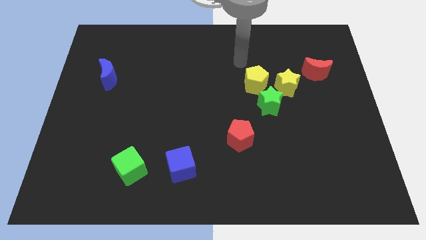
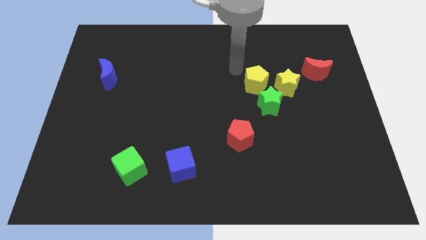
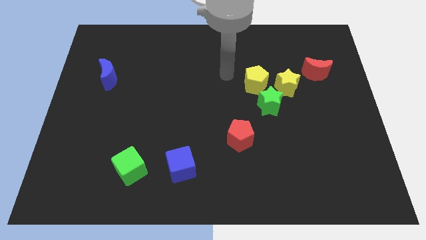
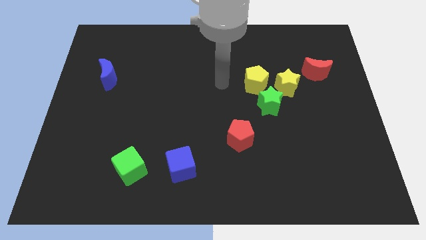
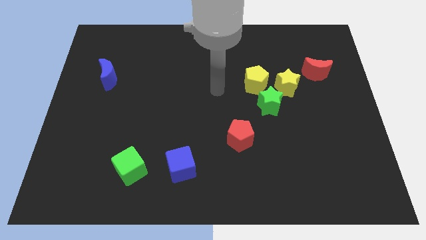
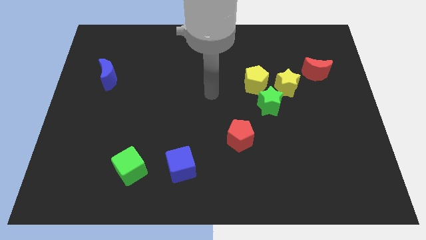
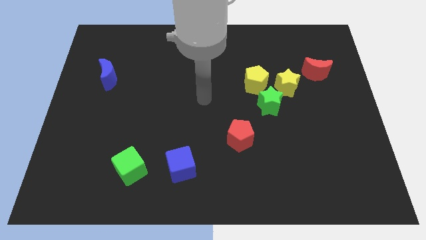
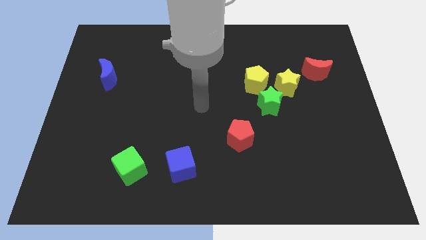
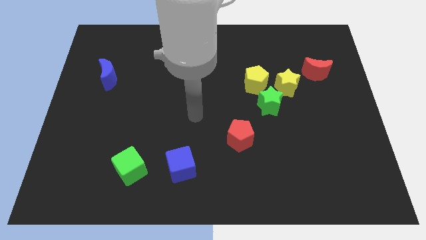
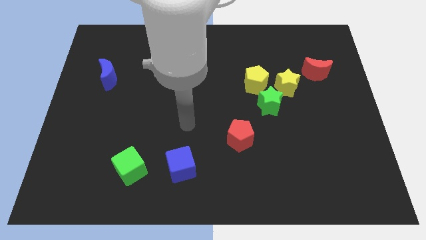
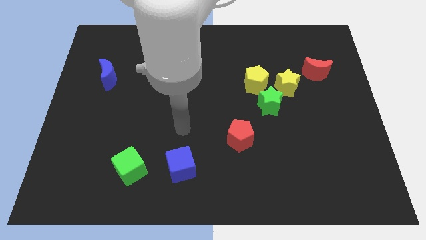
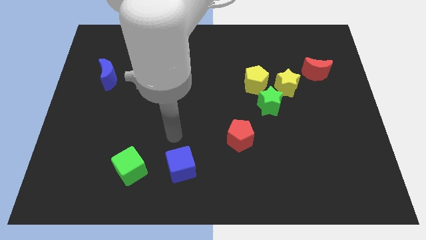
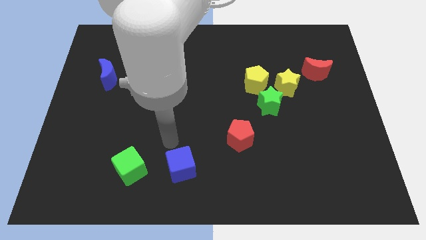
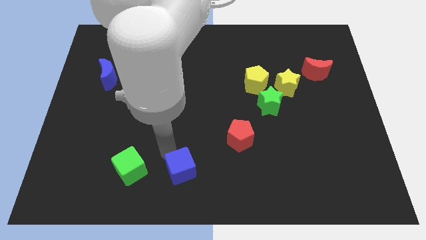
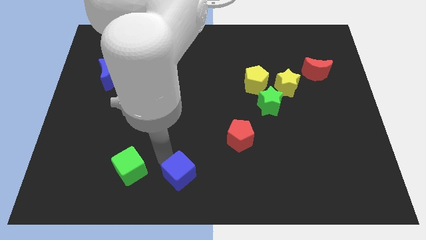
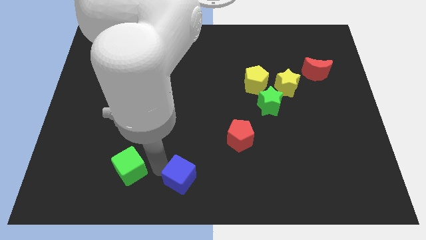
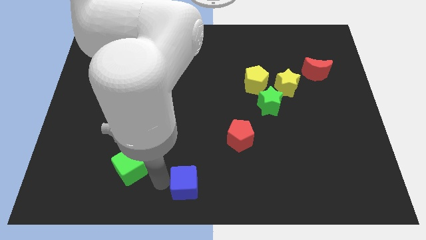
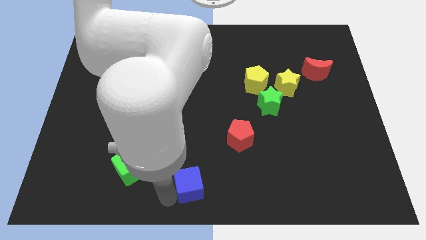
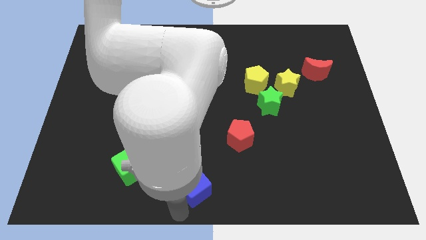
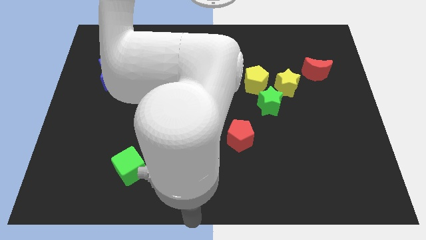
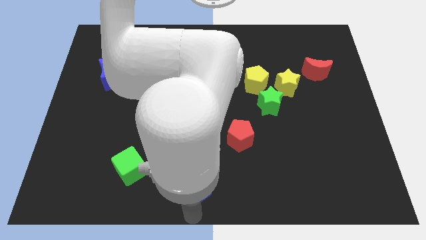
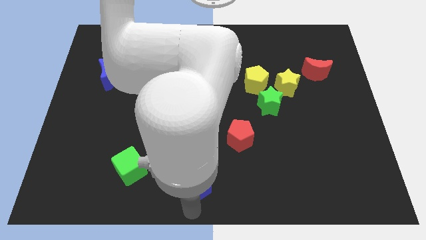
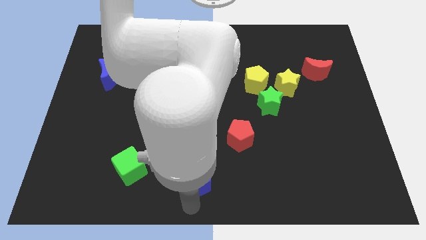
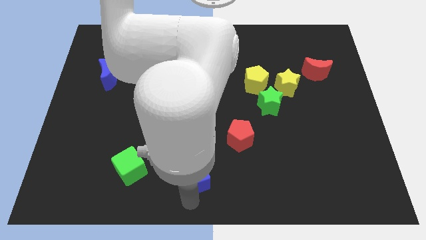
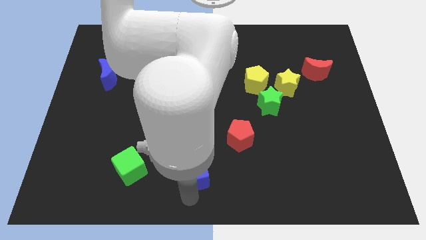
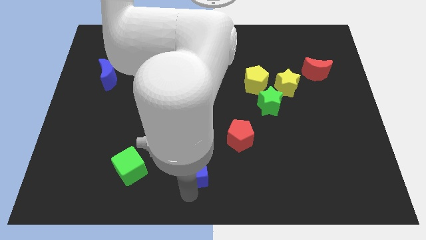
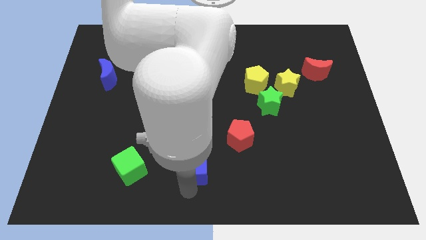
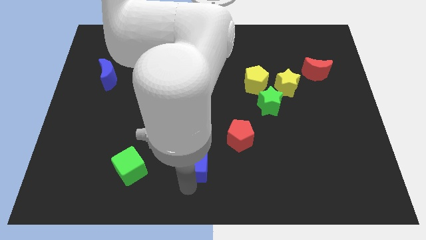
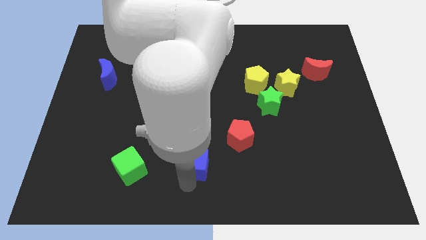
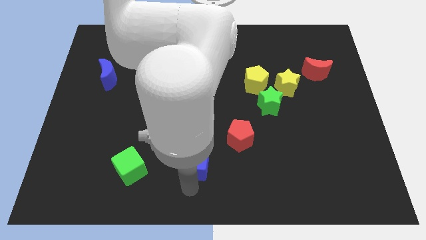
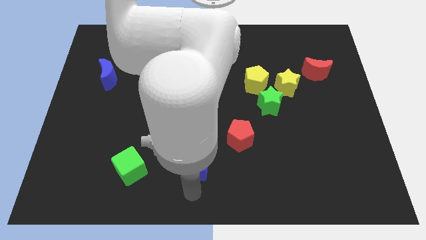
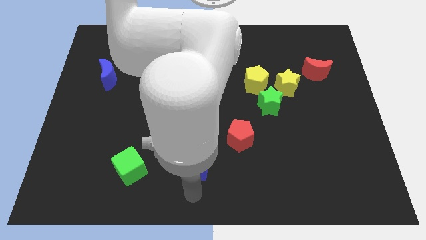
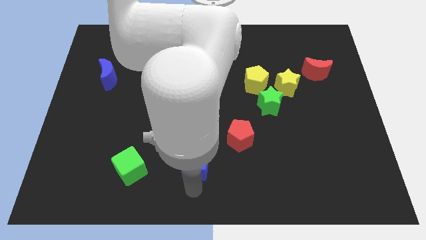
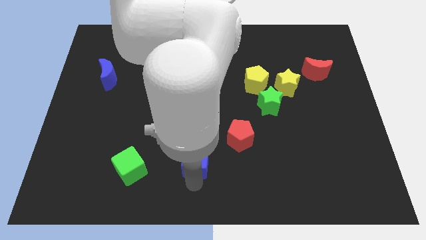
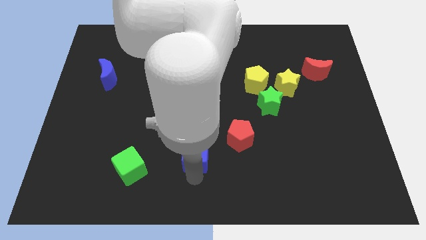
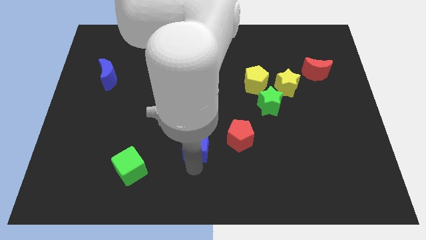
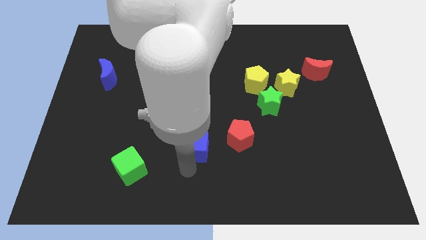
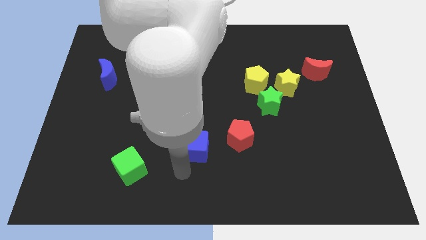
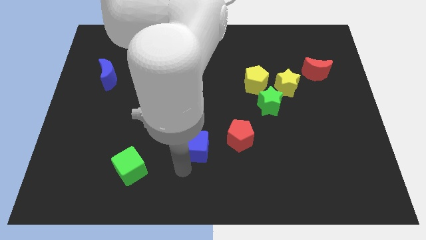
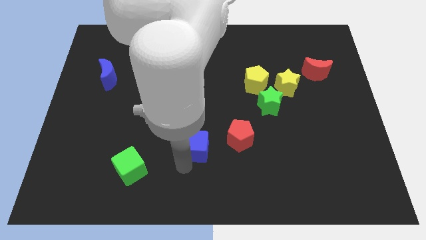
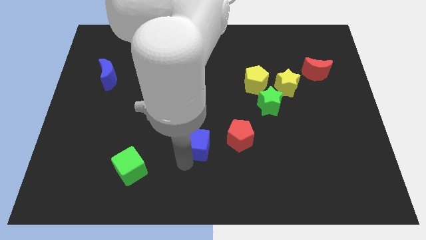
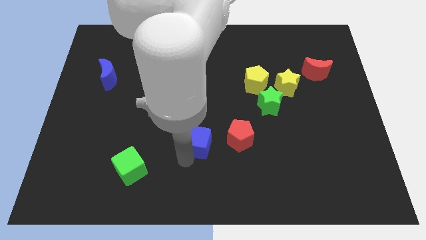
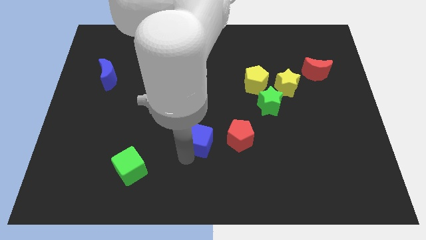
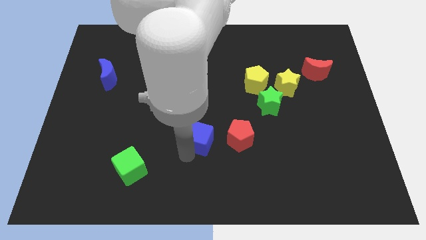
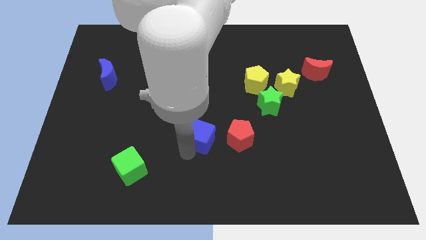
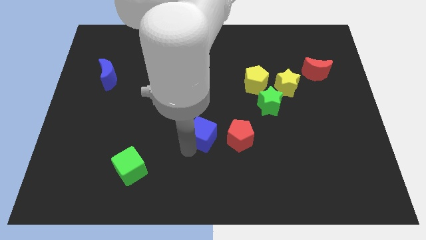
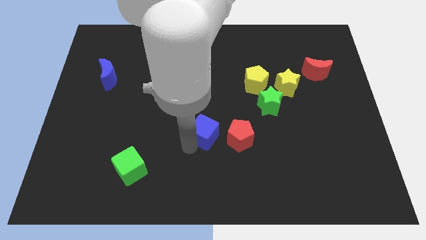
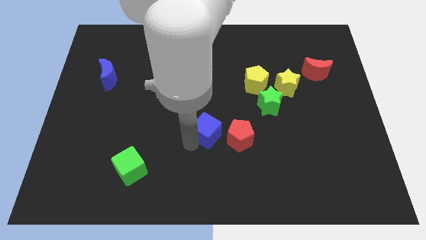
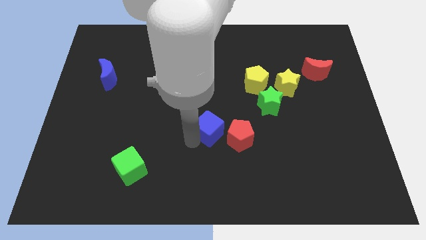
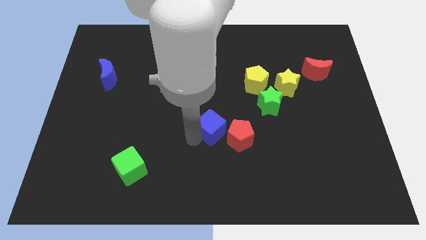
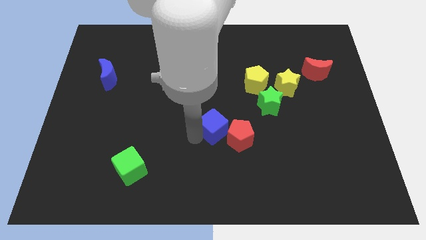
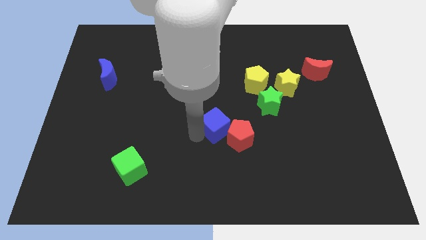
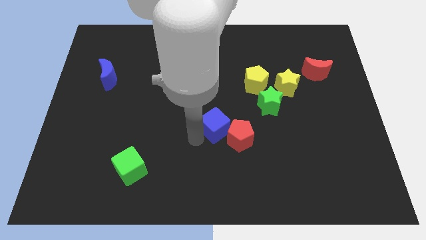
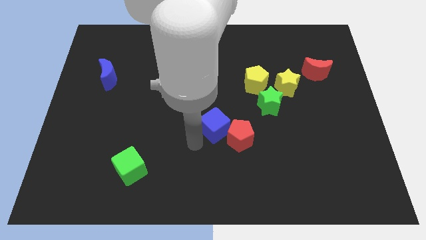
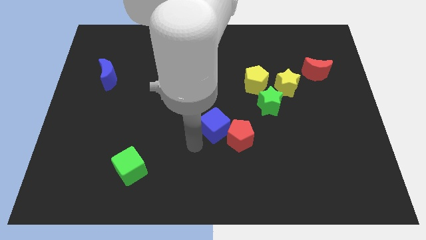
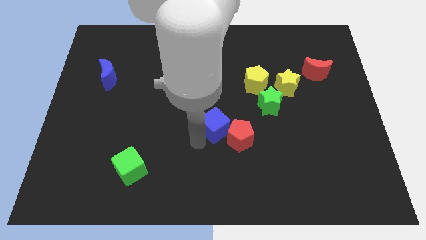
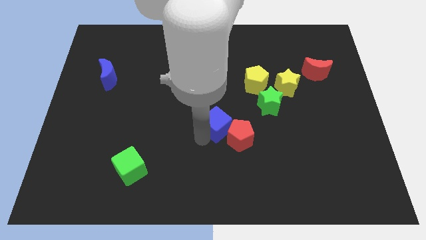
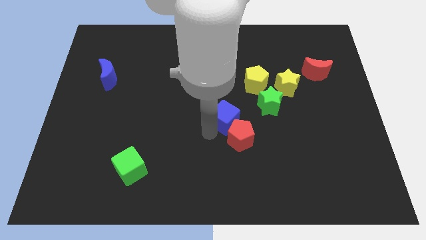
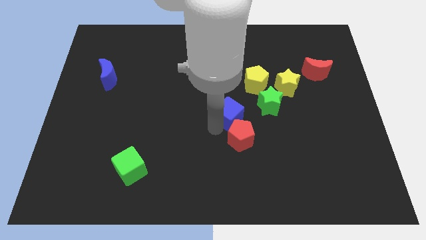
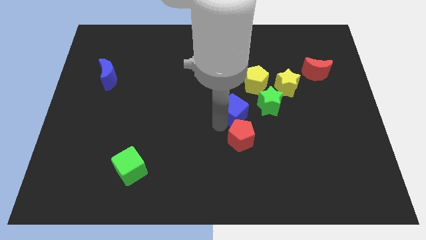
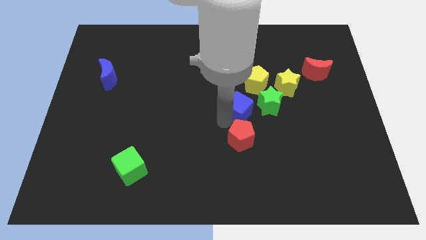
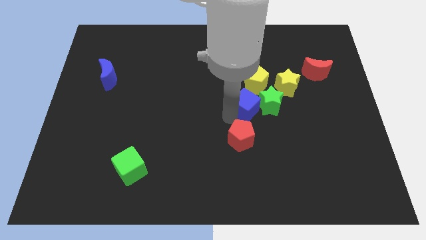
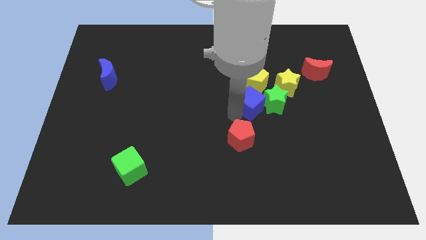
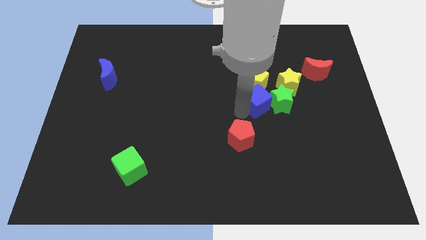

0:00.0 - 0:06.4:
push the blue cube next to the yellow pentagon
